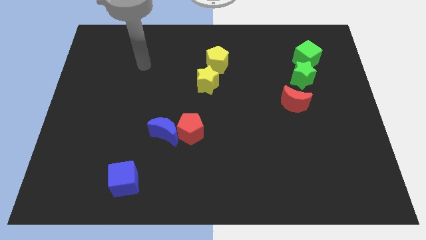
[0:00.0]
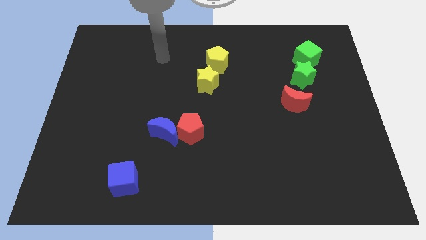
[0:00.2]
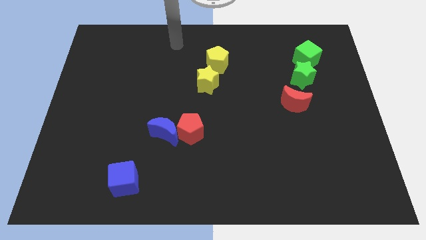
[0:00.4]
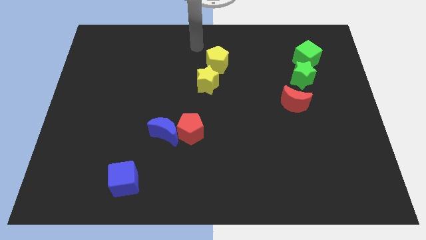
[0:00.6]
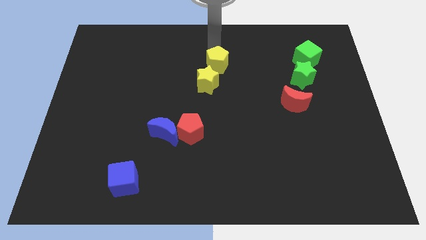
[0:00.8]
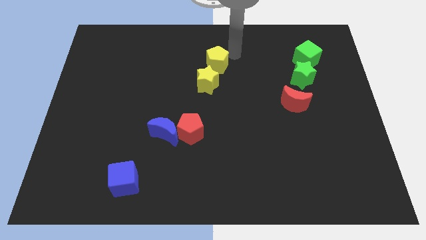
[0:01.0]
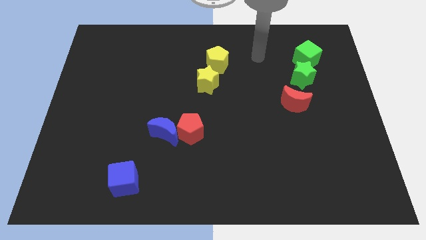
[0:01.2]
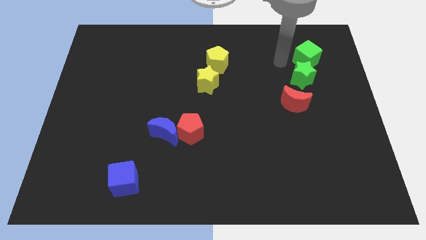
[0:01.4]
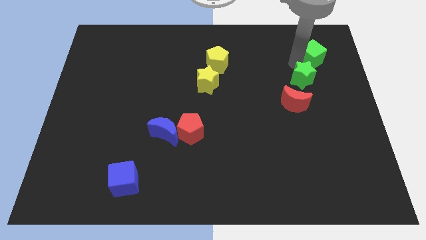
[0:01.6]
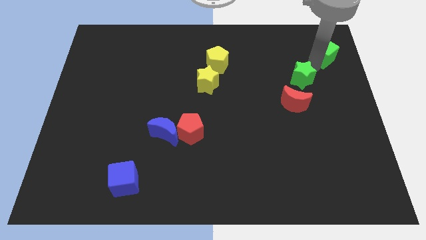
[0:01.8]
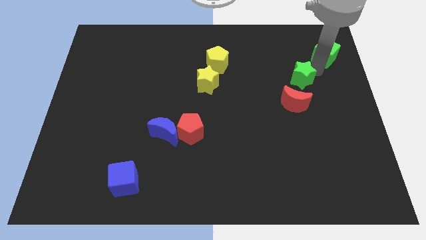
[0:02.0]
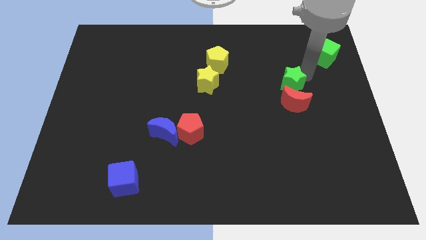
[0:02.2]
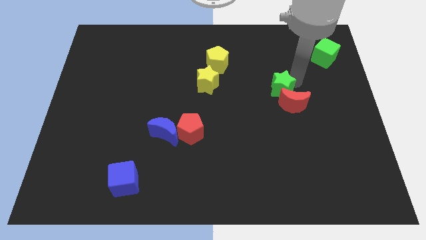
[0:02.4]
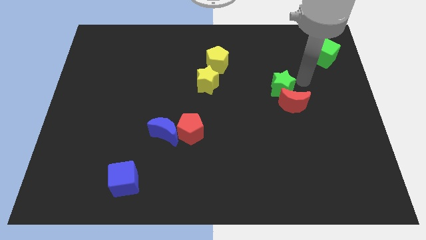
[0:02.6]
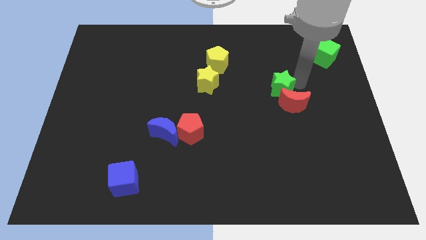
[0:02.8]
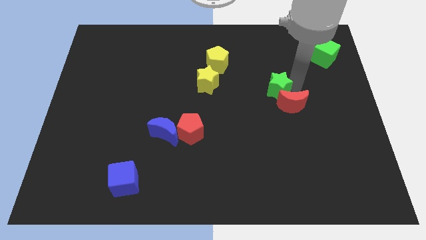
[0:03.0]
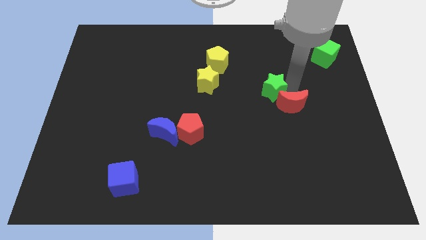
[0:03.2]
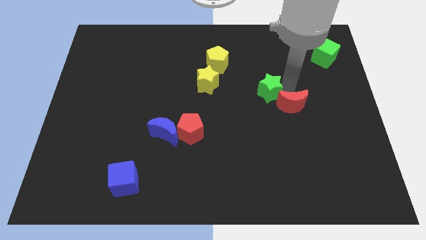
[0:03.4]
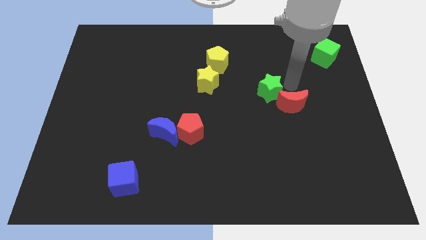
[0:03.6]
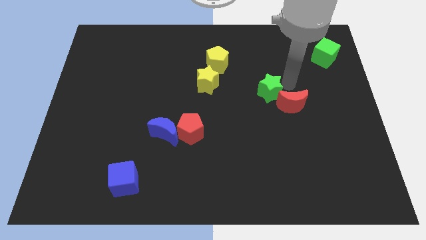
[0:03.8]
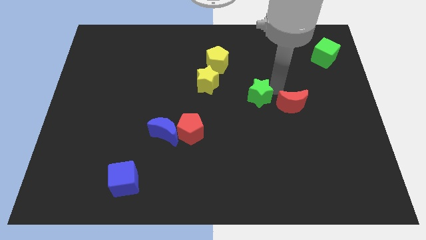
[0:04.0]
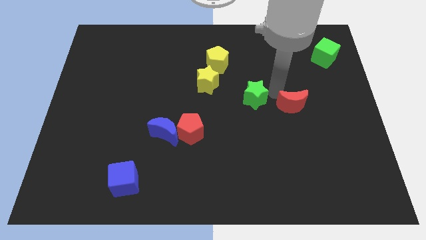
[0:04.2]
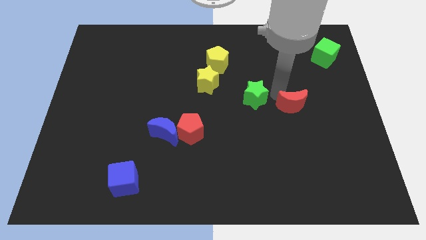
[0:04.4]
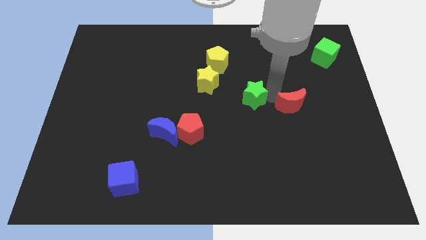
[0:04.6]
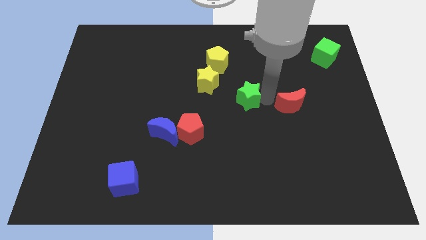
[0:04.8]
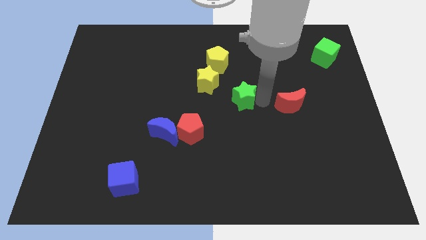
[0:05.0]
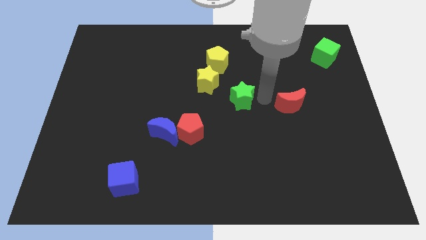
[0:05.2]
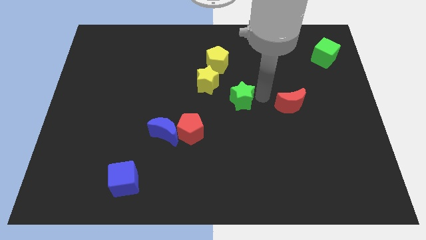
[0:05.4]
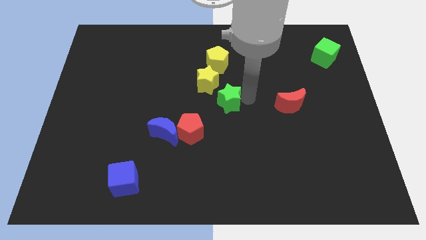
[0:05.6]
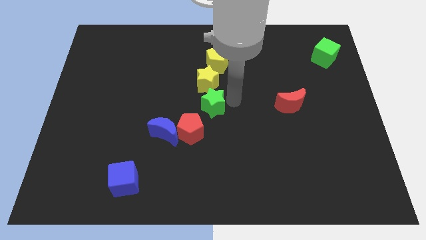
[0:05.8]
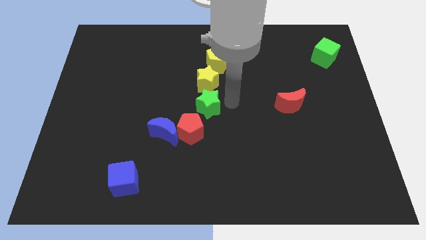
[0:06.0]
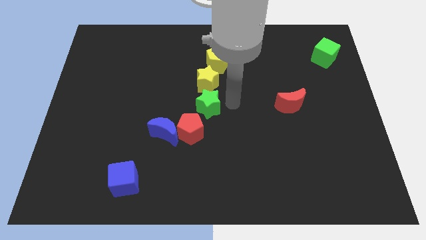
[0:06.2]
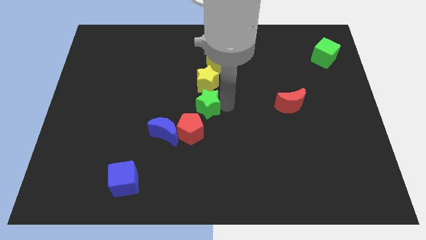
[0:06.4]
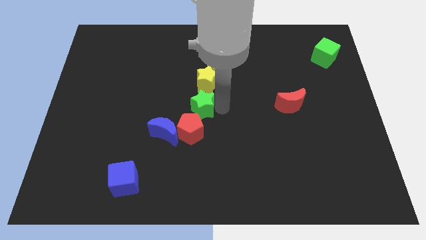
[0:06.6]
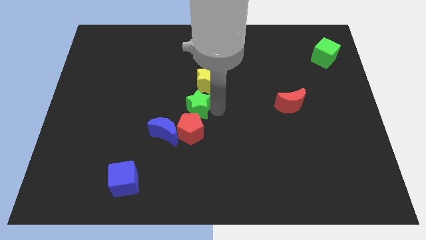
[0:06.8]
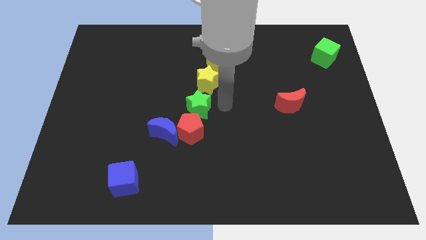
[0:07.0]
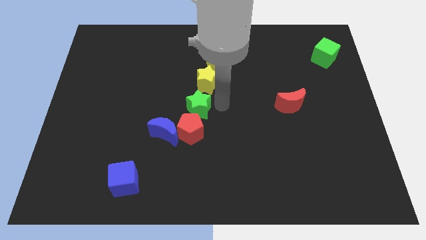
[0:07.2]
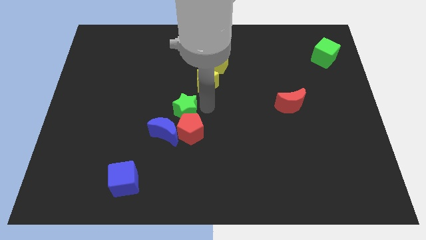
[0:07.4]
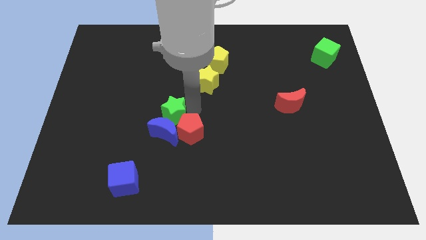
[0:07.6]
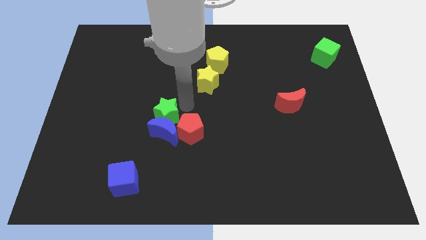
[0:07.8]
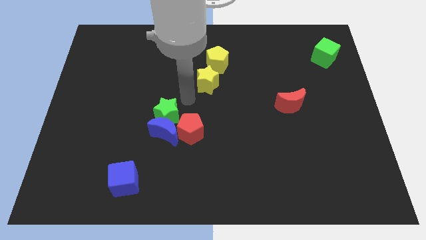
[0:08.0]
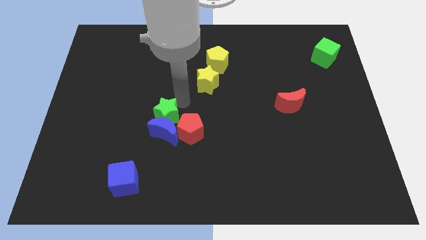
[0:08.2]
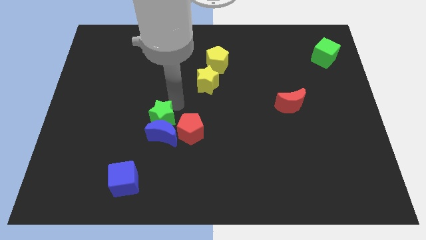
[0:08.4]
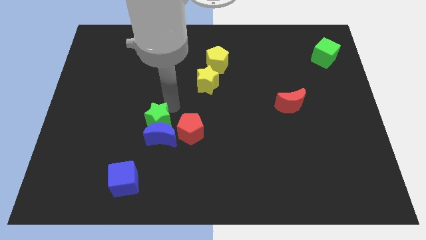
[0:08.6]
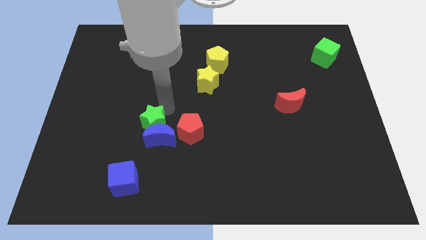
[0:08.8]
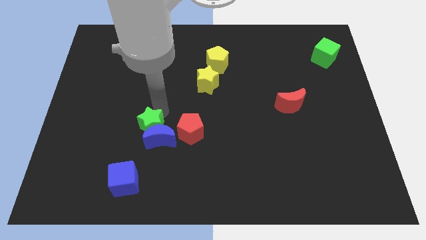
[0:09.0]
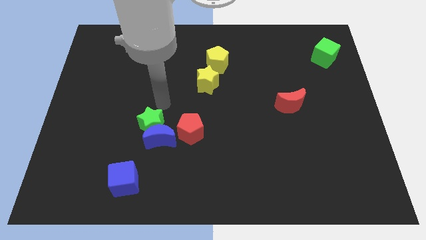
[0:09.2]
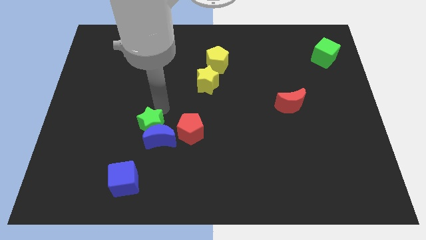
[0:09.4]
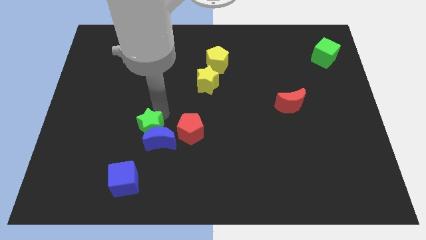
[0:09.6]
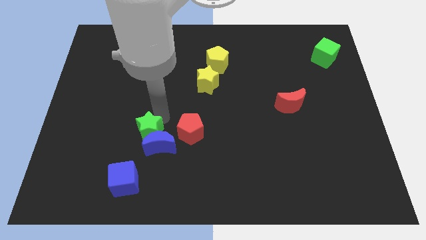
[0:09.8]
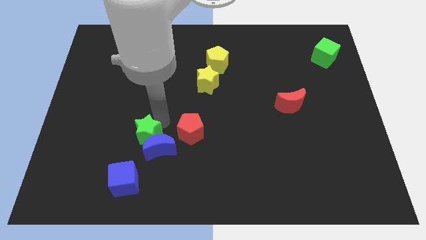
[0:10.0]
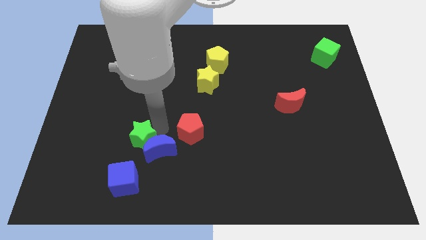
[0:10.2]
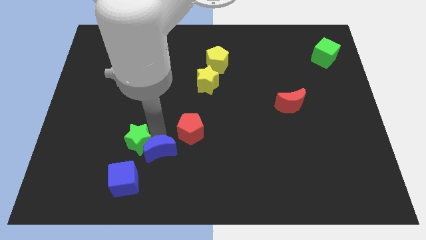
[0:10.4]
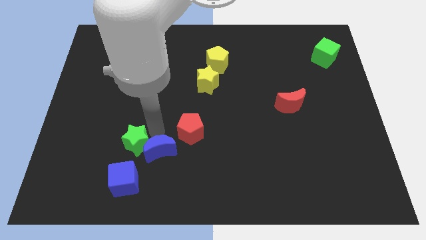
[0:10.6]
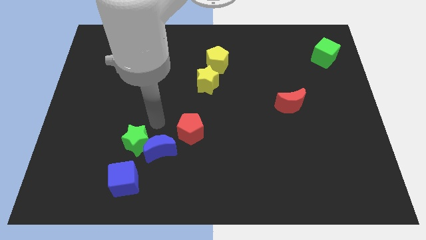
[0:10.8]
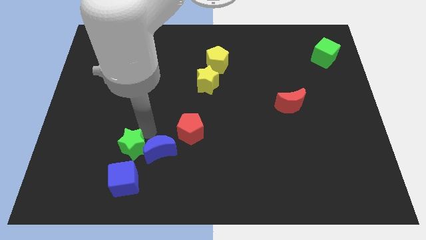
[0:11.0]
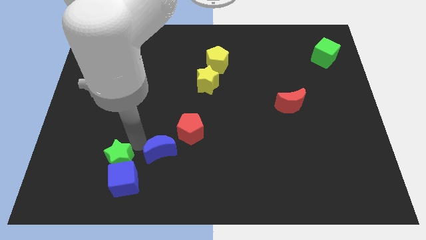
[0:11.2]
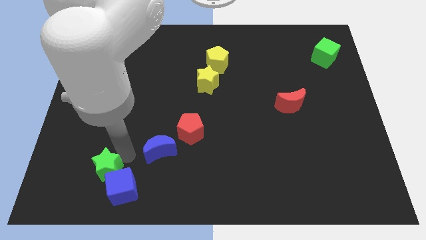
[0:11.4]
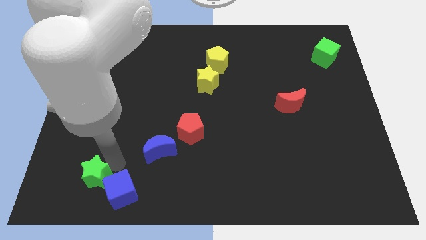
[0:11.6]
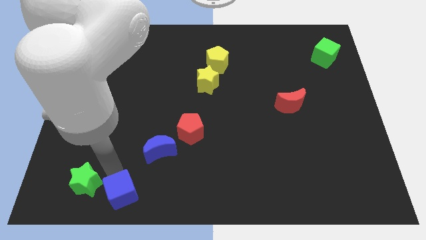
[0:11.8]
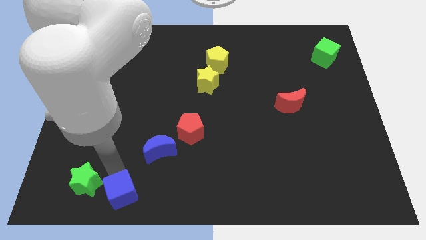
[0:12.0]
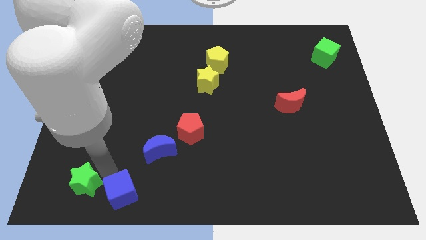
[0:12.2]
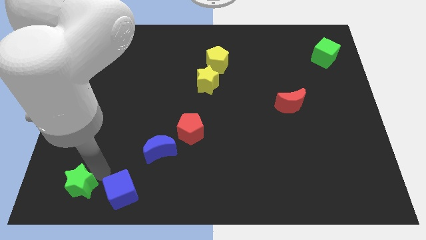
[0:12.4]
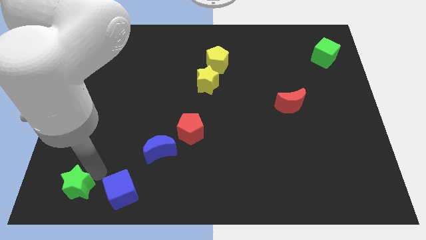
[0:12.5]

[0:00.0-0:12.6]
slide the green star to the bottom left

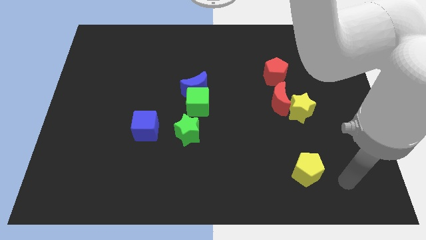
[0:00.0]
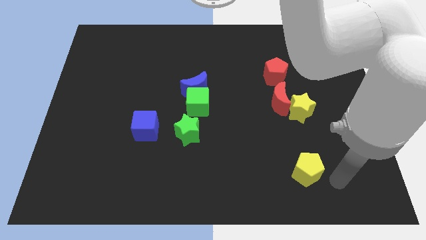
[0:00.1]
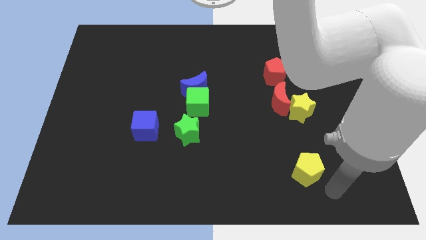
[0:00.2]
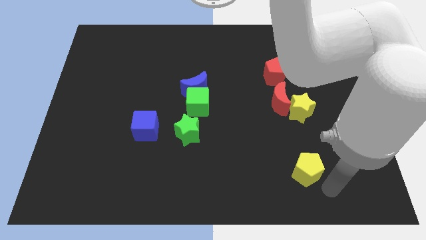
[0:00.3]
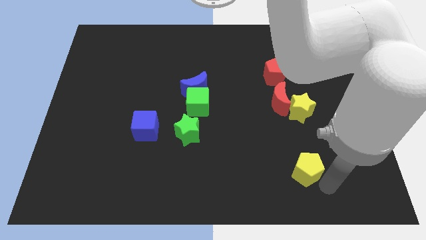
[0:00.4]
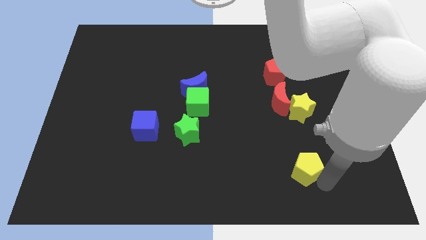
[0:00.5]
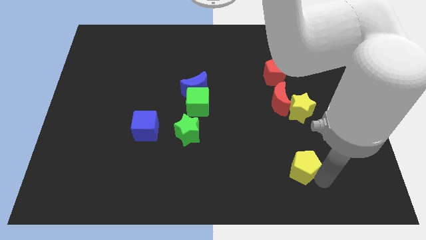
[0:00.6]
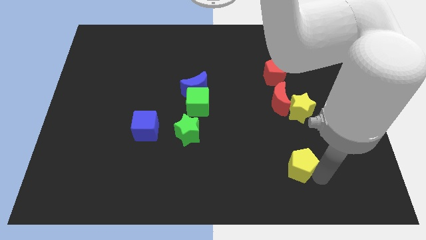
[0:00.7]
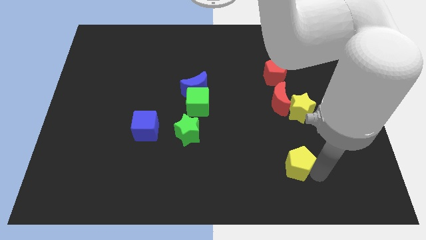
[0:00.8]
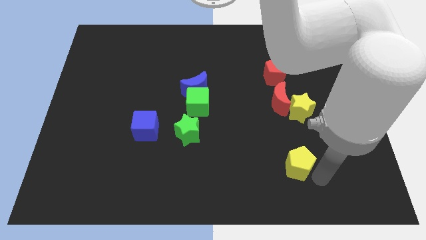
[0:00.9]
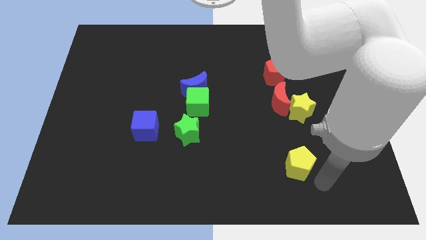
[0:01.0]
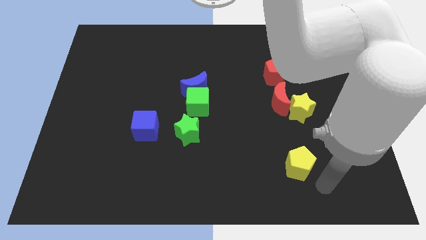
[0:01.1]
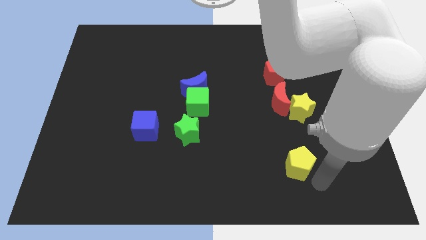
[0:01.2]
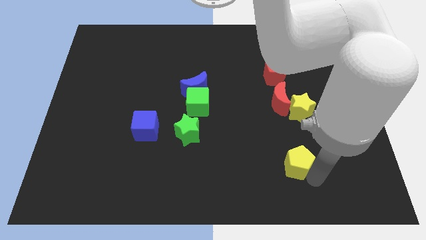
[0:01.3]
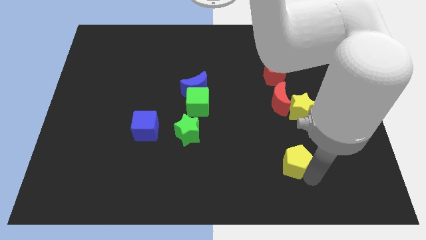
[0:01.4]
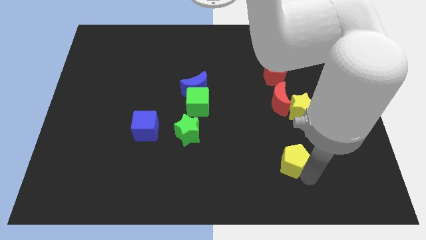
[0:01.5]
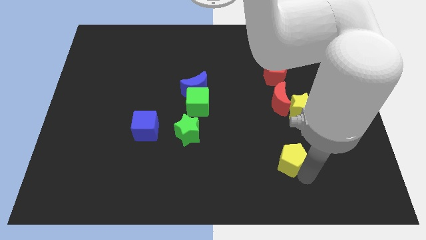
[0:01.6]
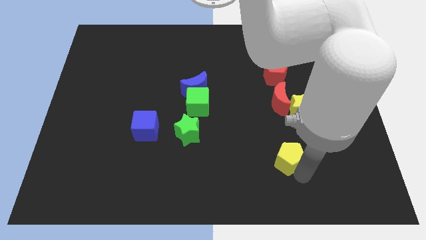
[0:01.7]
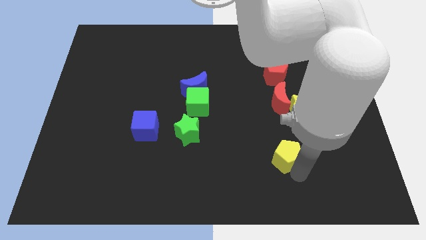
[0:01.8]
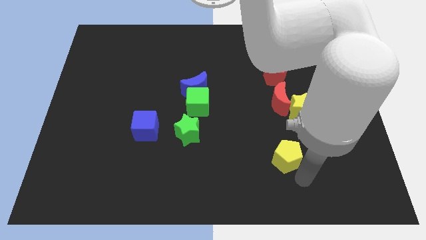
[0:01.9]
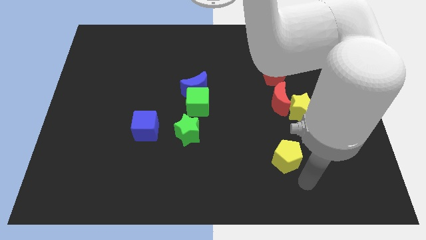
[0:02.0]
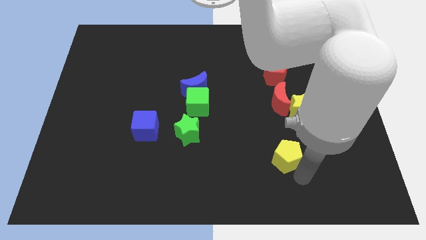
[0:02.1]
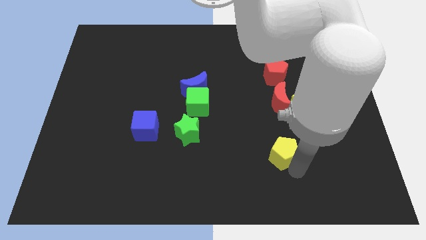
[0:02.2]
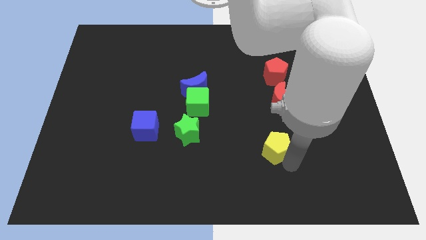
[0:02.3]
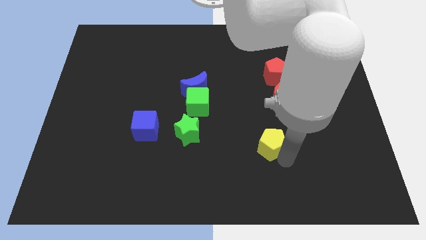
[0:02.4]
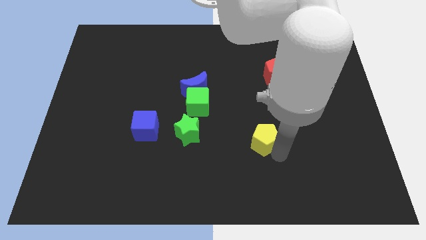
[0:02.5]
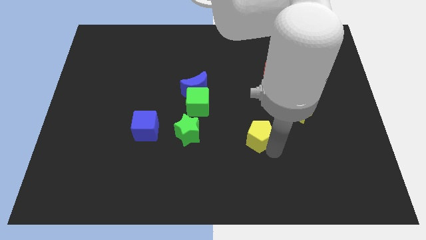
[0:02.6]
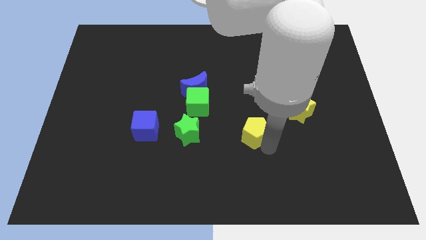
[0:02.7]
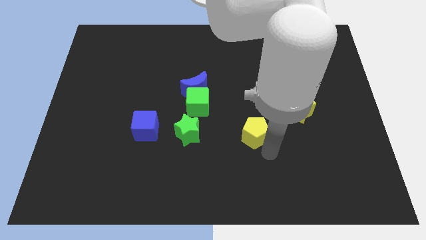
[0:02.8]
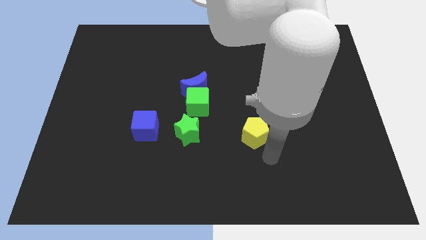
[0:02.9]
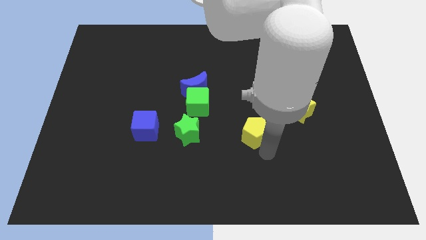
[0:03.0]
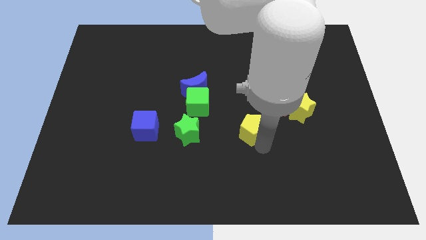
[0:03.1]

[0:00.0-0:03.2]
push the yellow pentagon to the middle of the board
